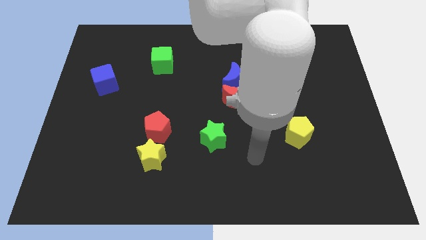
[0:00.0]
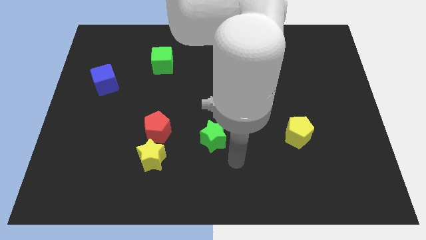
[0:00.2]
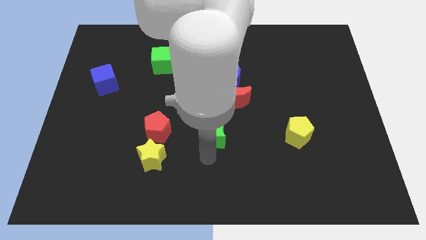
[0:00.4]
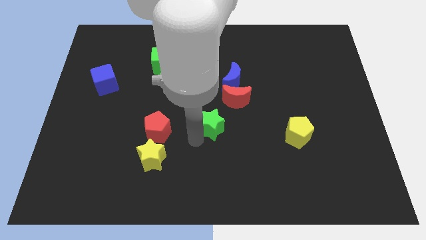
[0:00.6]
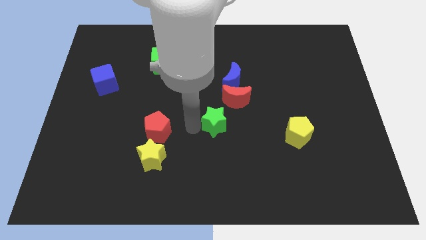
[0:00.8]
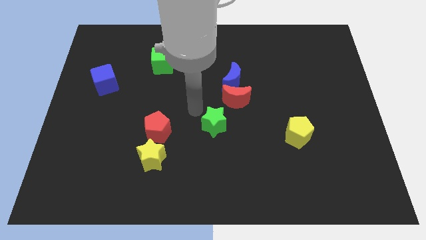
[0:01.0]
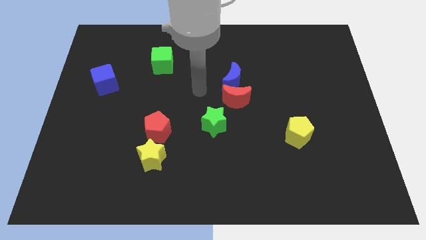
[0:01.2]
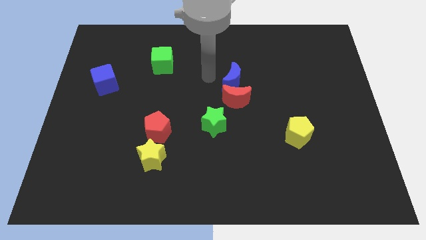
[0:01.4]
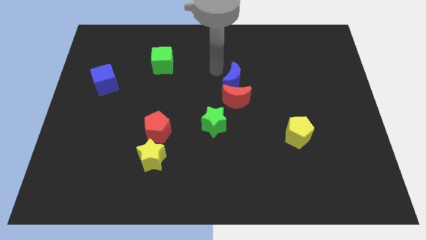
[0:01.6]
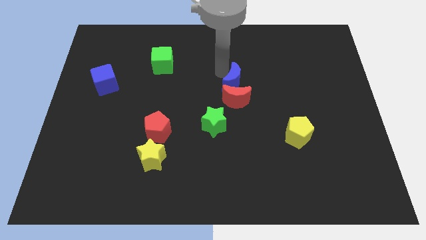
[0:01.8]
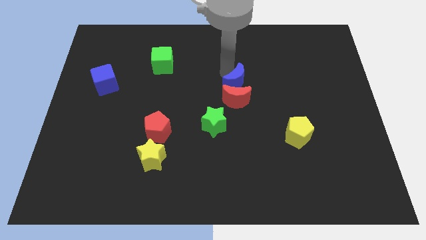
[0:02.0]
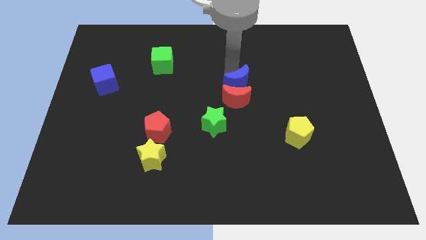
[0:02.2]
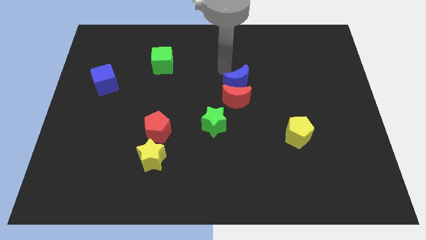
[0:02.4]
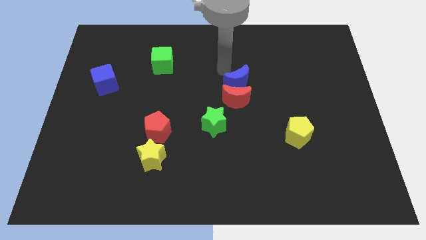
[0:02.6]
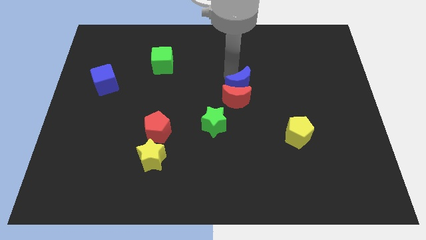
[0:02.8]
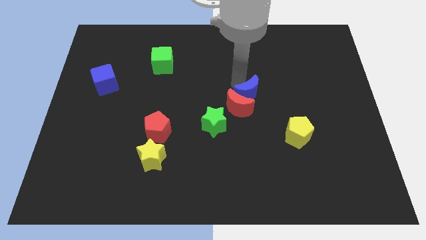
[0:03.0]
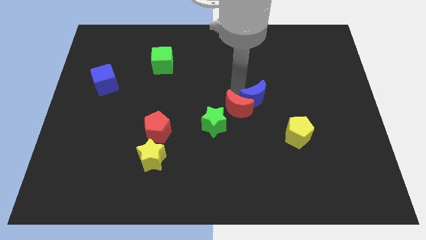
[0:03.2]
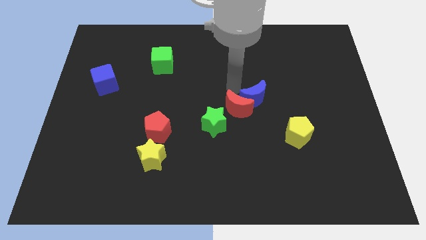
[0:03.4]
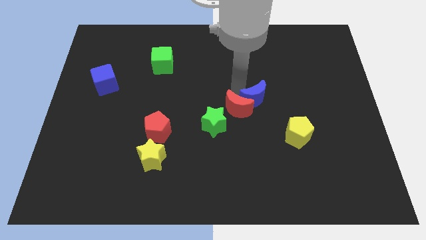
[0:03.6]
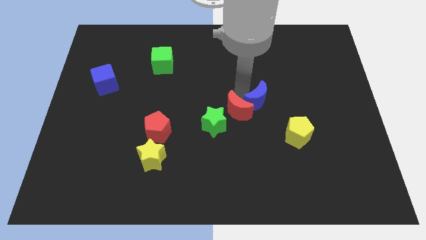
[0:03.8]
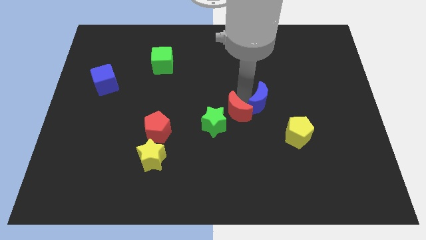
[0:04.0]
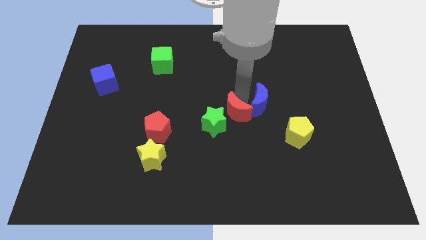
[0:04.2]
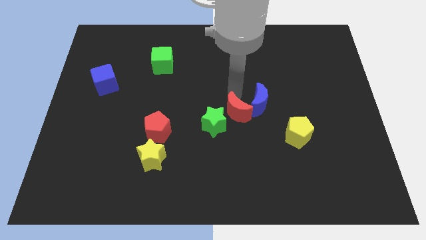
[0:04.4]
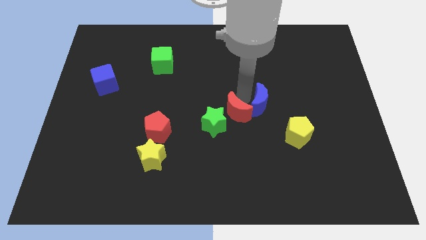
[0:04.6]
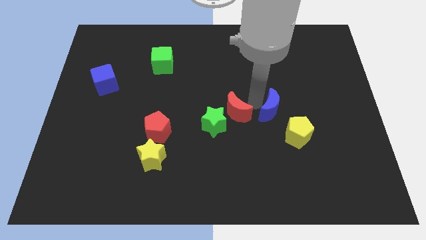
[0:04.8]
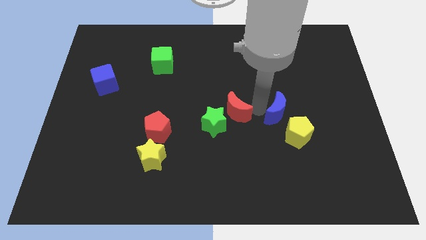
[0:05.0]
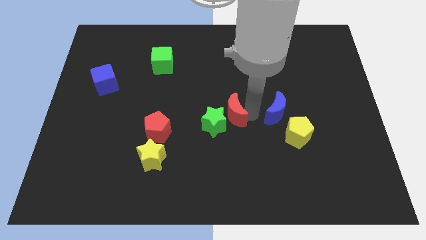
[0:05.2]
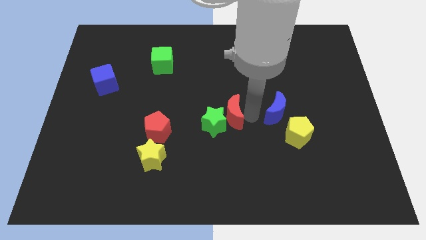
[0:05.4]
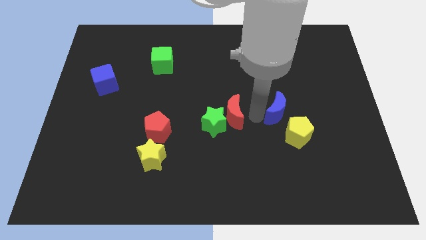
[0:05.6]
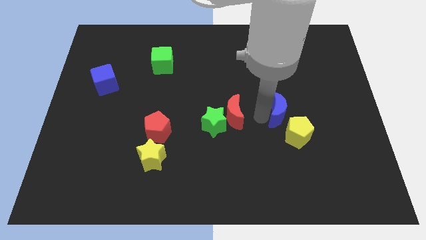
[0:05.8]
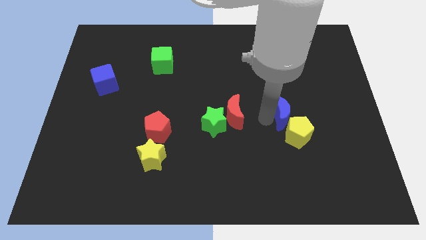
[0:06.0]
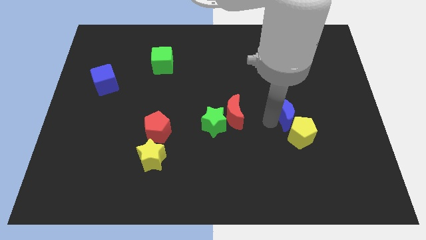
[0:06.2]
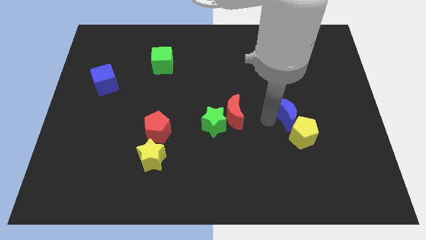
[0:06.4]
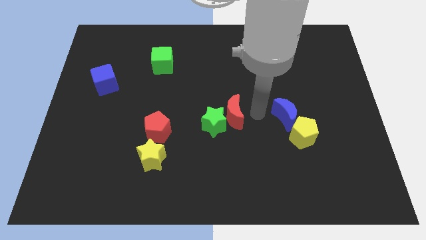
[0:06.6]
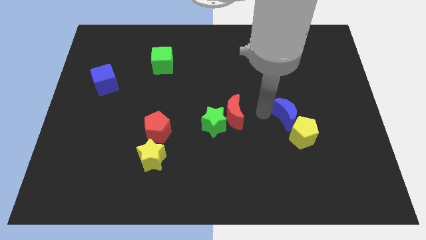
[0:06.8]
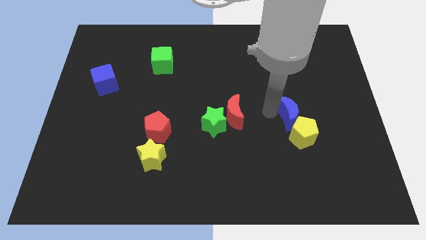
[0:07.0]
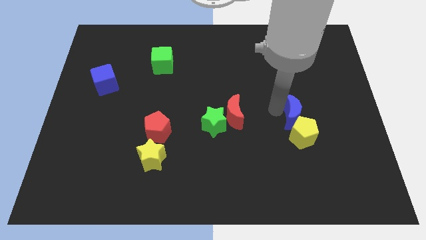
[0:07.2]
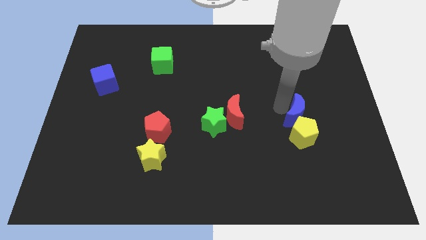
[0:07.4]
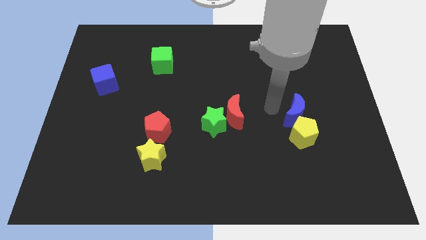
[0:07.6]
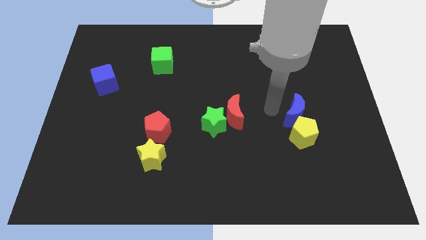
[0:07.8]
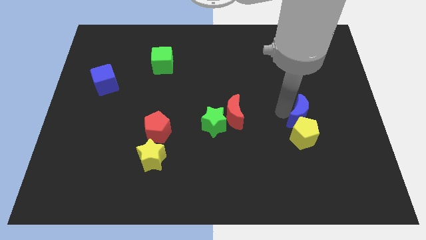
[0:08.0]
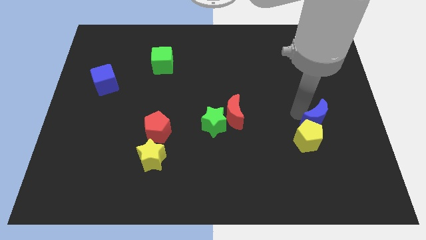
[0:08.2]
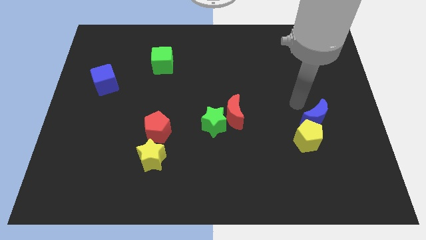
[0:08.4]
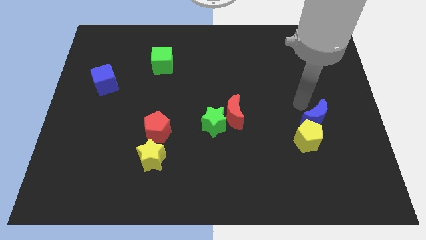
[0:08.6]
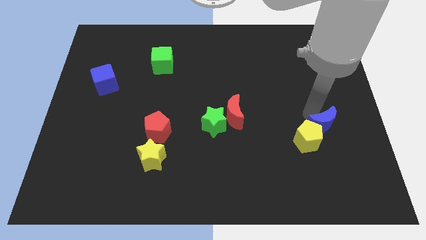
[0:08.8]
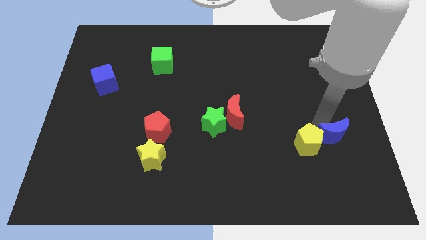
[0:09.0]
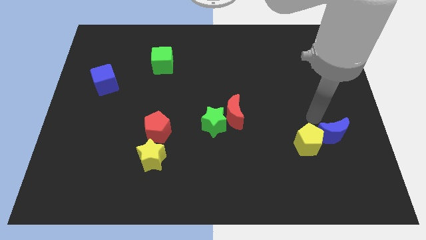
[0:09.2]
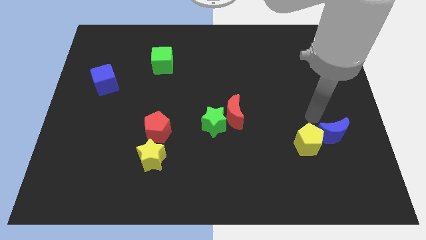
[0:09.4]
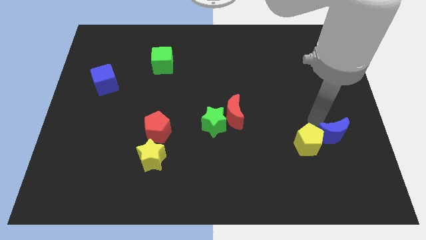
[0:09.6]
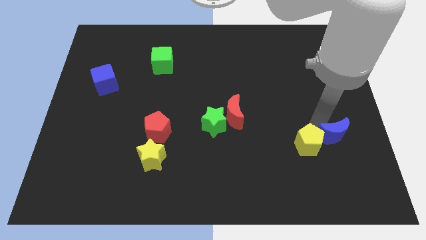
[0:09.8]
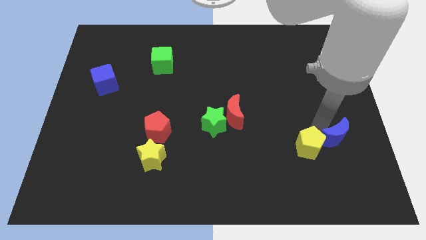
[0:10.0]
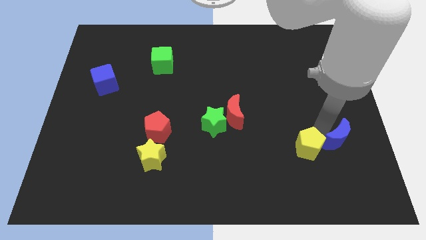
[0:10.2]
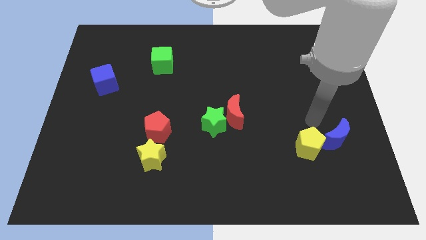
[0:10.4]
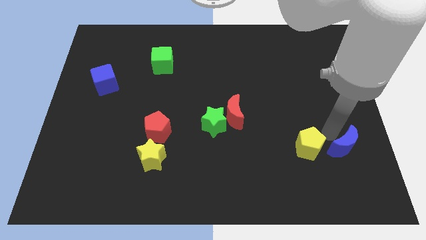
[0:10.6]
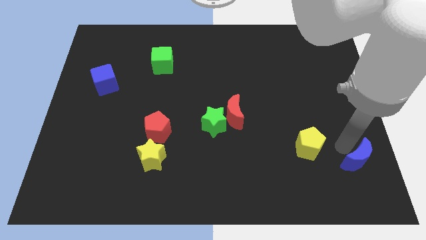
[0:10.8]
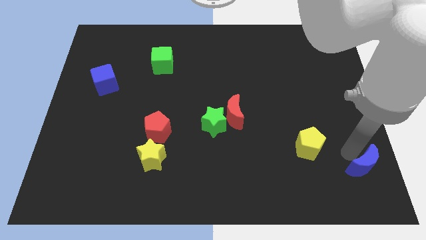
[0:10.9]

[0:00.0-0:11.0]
move the blue moon to the bottom right corner

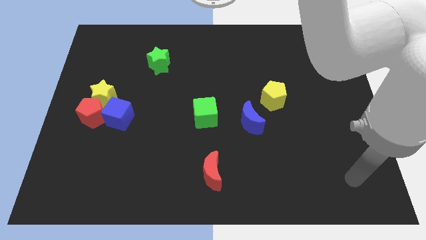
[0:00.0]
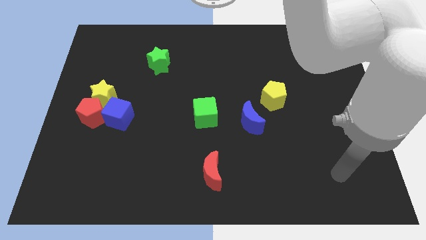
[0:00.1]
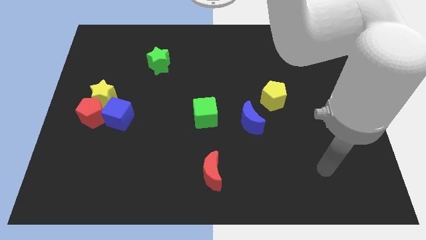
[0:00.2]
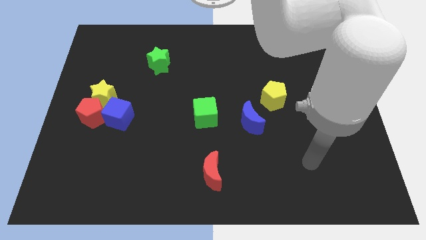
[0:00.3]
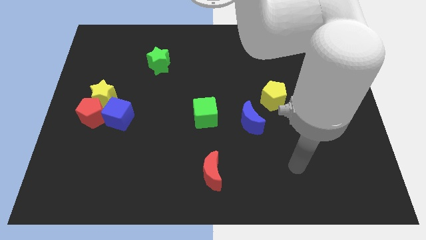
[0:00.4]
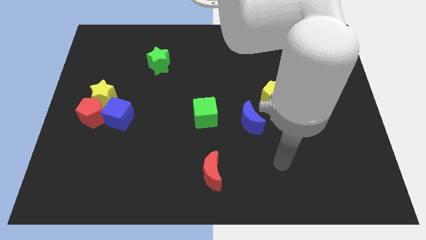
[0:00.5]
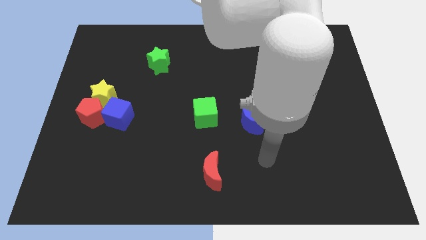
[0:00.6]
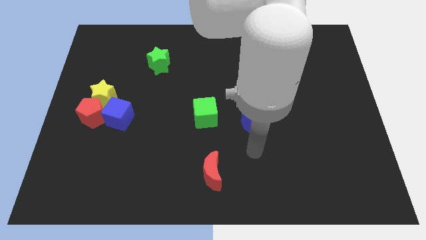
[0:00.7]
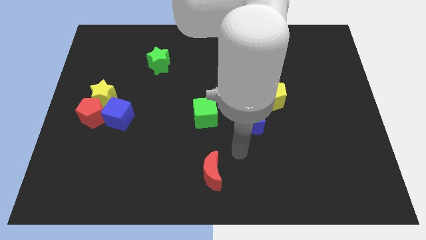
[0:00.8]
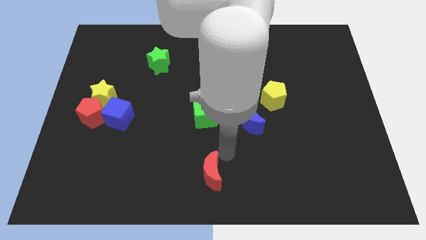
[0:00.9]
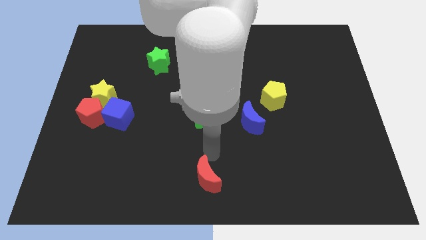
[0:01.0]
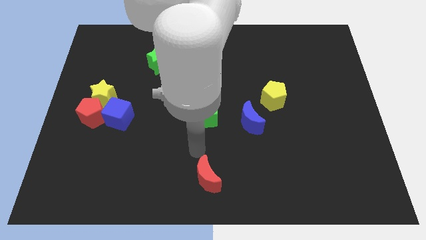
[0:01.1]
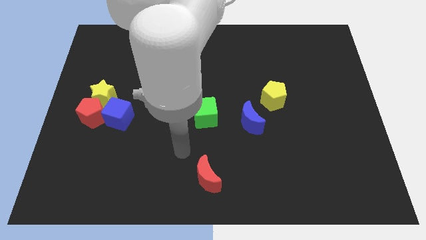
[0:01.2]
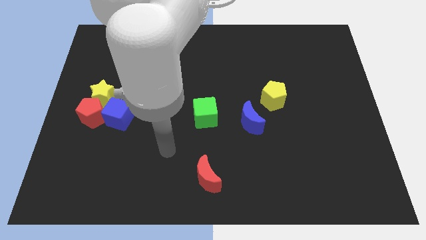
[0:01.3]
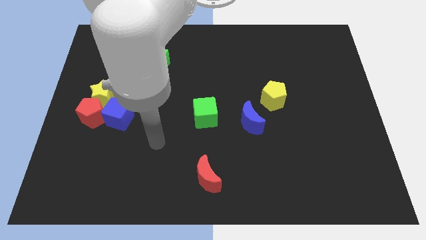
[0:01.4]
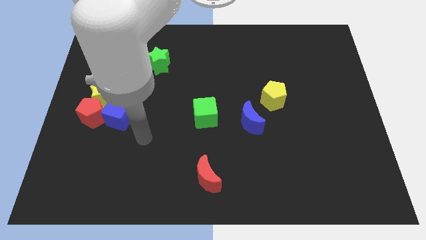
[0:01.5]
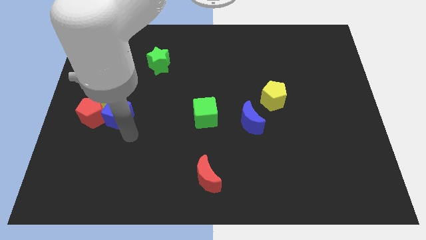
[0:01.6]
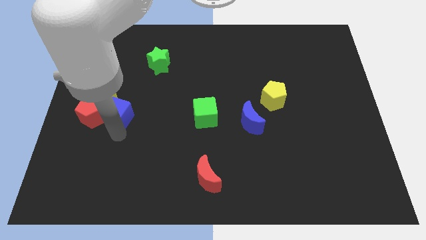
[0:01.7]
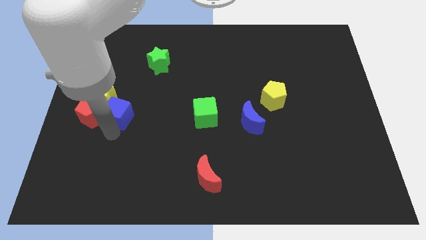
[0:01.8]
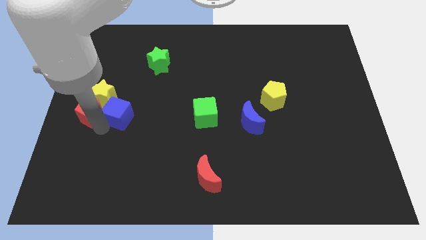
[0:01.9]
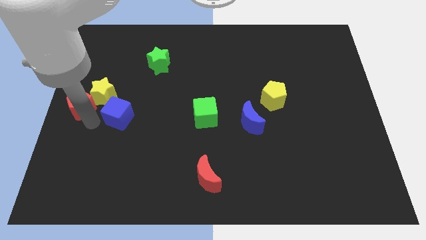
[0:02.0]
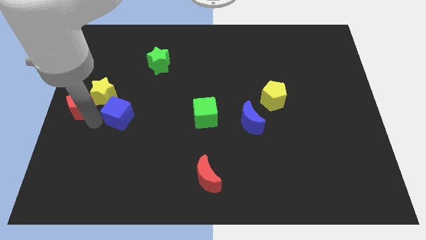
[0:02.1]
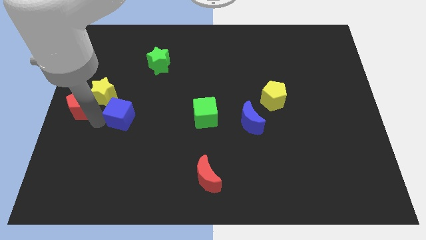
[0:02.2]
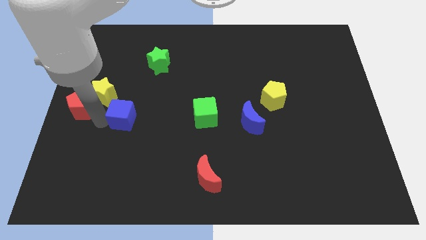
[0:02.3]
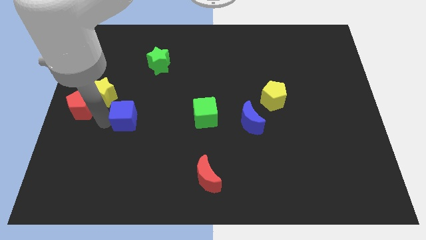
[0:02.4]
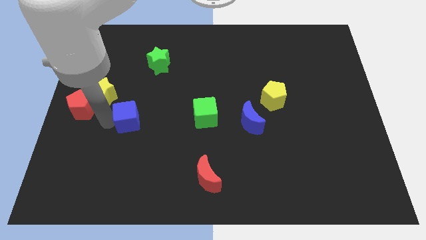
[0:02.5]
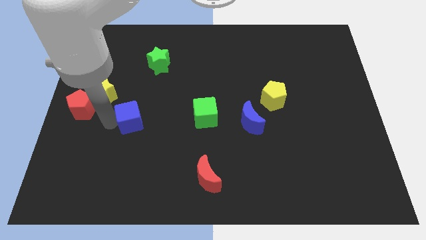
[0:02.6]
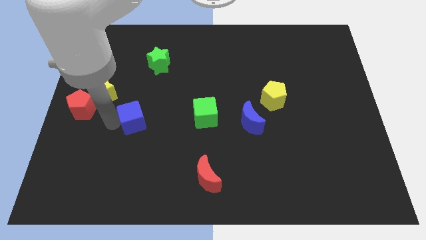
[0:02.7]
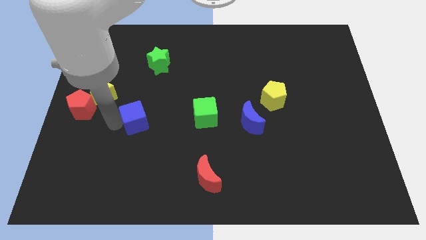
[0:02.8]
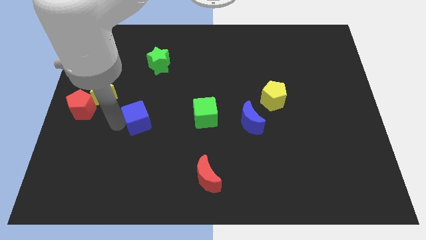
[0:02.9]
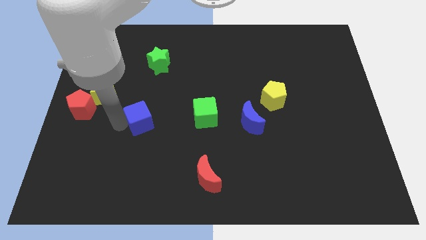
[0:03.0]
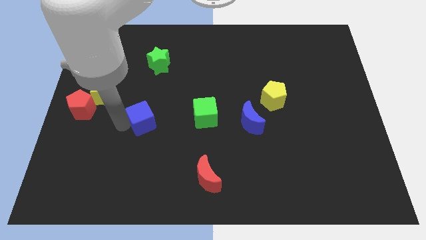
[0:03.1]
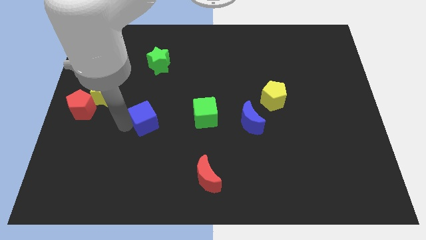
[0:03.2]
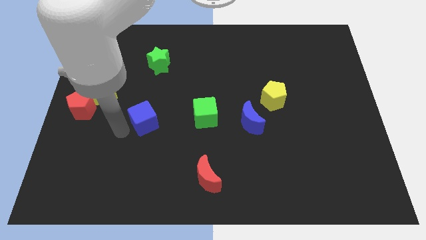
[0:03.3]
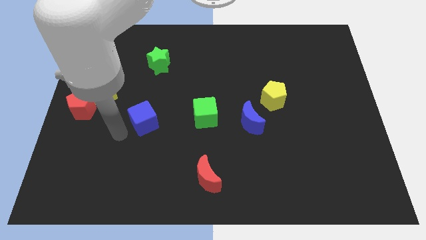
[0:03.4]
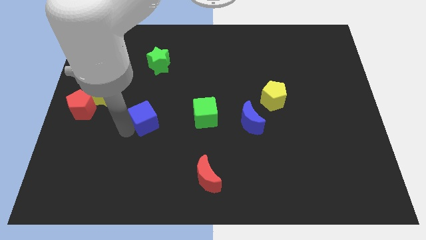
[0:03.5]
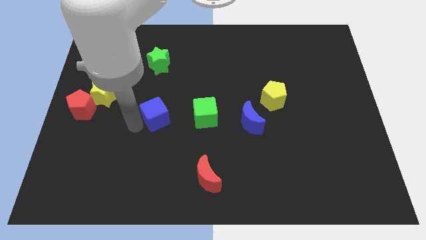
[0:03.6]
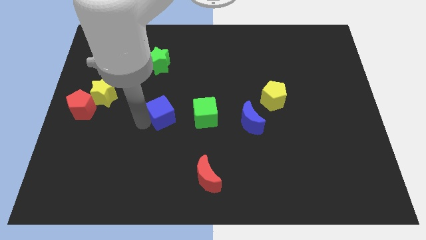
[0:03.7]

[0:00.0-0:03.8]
put the blue cube to the center
